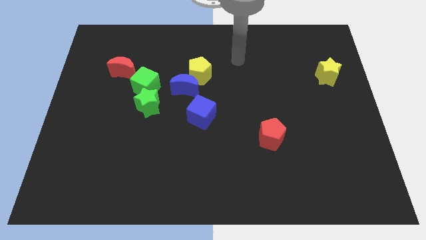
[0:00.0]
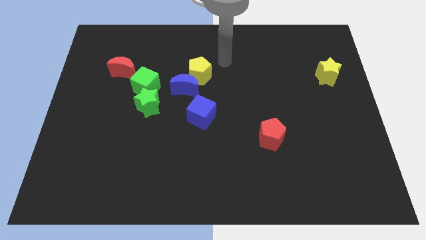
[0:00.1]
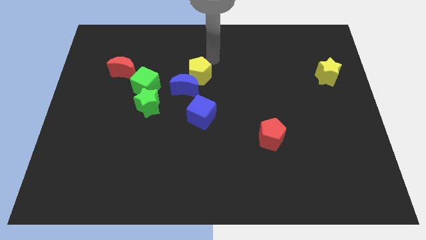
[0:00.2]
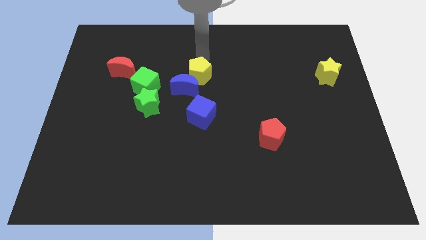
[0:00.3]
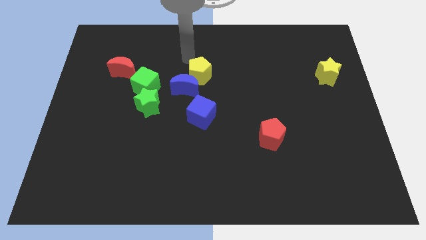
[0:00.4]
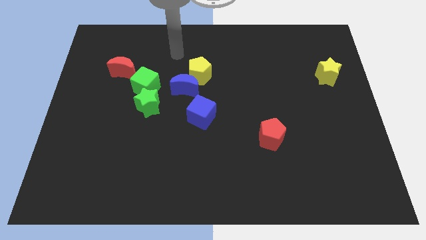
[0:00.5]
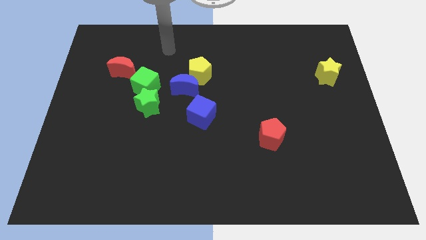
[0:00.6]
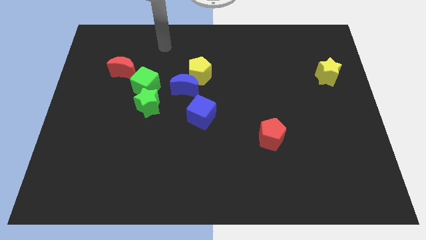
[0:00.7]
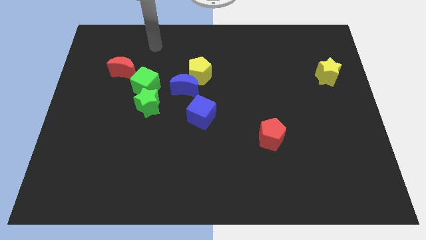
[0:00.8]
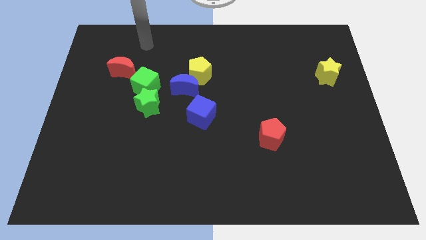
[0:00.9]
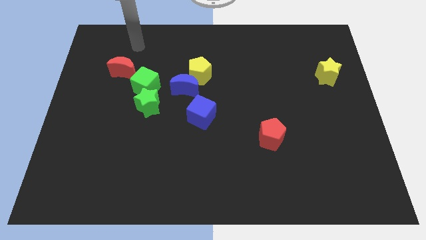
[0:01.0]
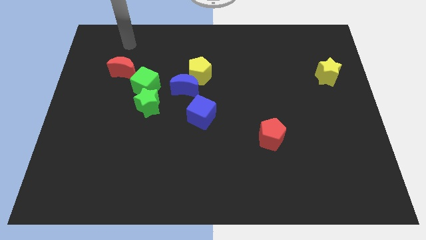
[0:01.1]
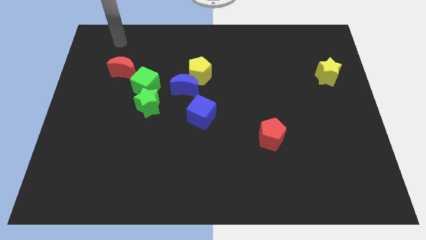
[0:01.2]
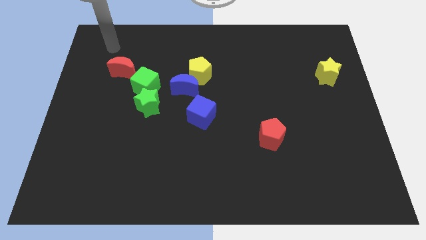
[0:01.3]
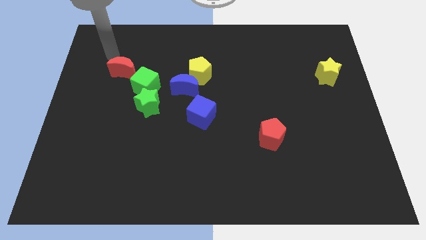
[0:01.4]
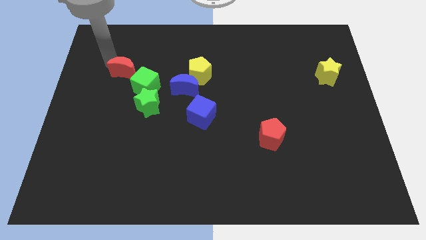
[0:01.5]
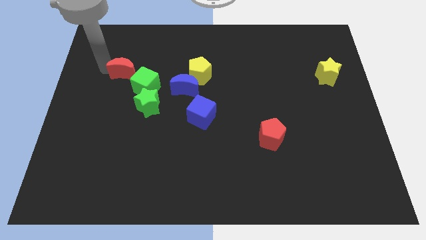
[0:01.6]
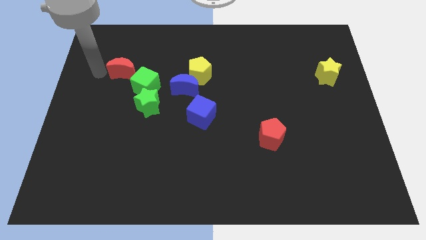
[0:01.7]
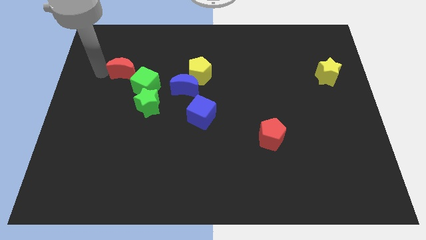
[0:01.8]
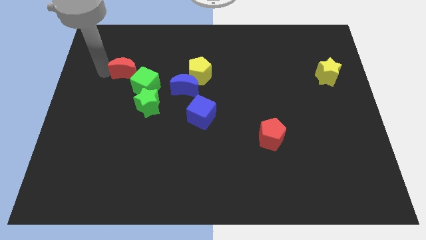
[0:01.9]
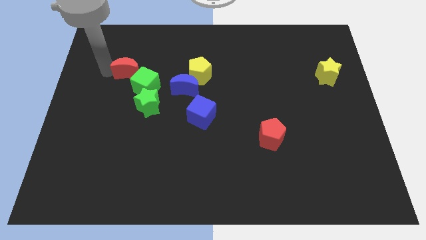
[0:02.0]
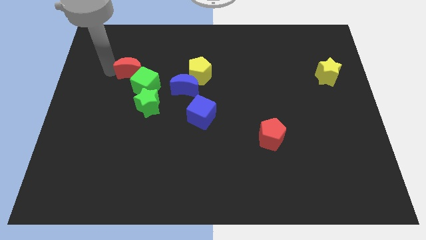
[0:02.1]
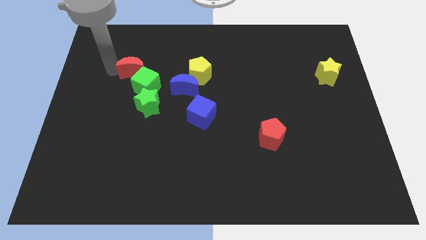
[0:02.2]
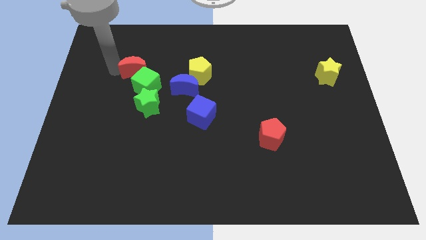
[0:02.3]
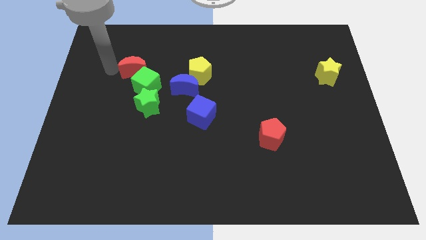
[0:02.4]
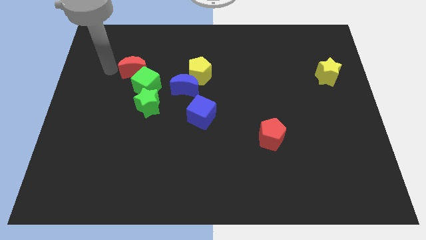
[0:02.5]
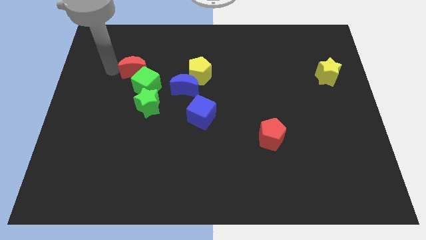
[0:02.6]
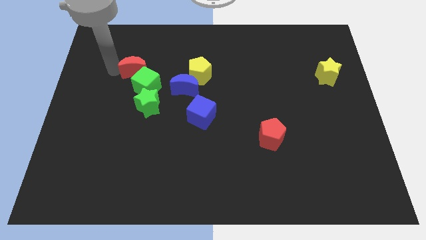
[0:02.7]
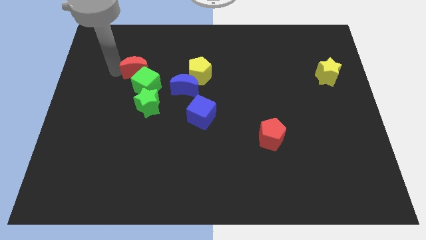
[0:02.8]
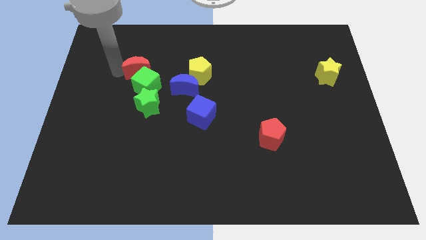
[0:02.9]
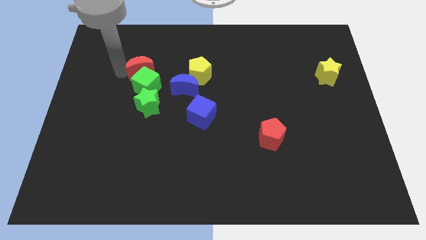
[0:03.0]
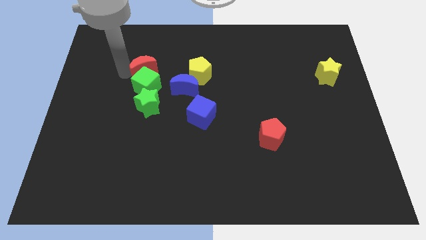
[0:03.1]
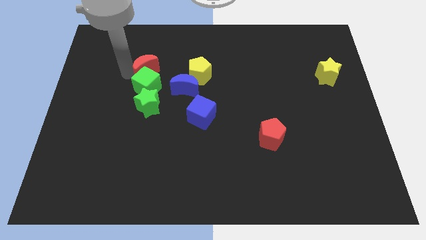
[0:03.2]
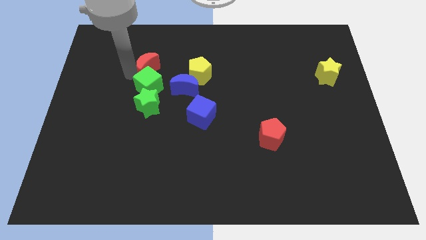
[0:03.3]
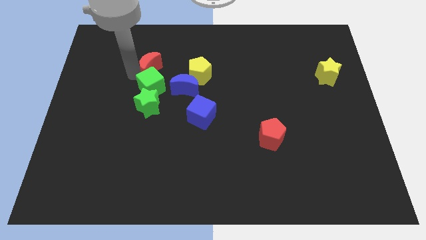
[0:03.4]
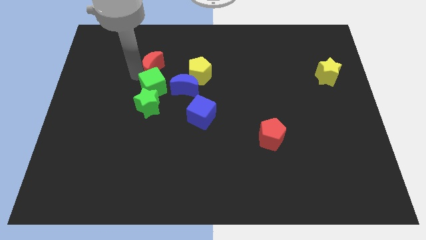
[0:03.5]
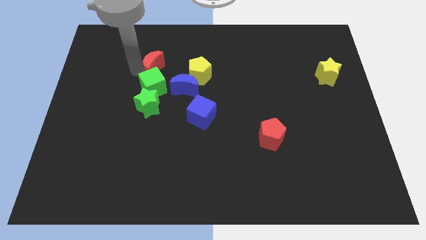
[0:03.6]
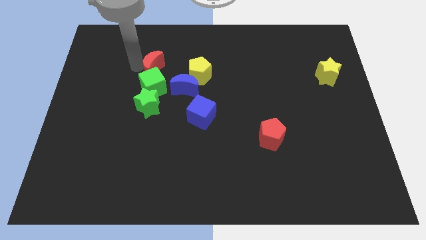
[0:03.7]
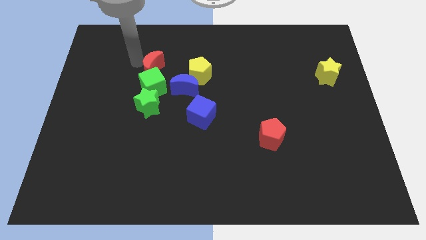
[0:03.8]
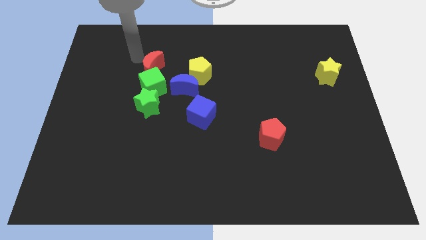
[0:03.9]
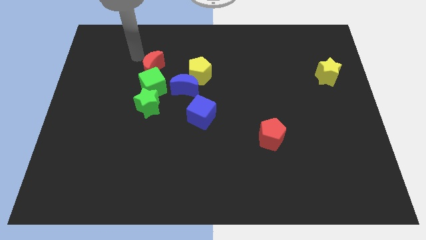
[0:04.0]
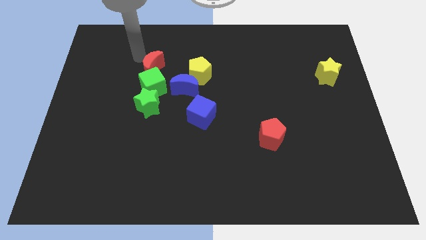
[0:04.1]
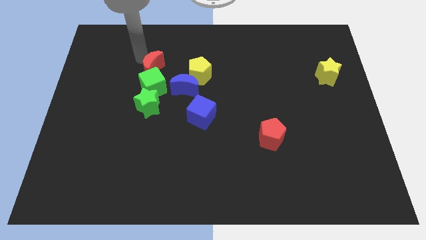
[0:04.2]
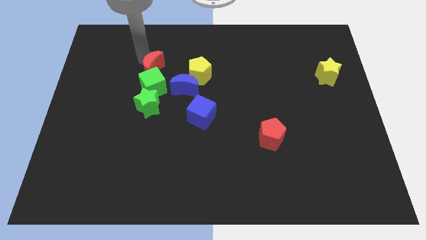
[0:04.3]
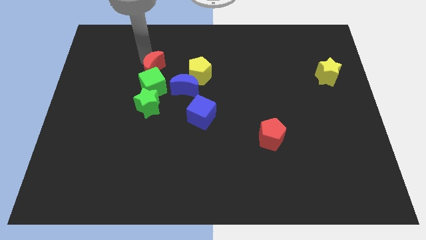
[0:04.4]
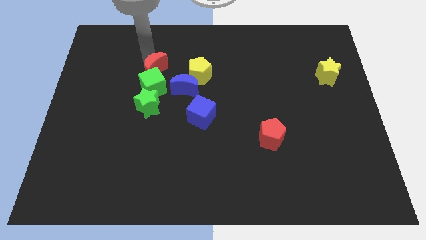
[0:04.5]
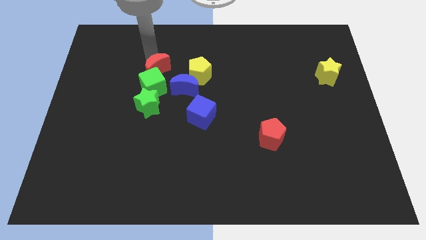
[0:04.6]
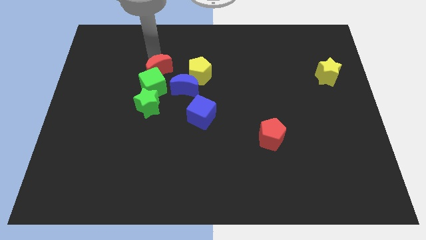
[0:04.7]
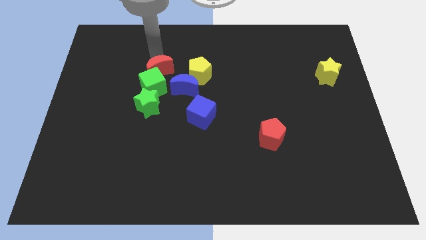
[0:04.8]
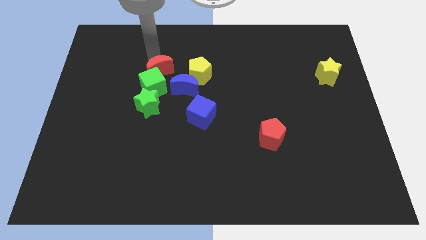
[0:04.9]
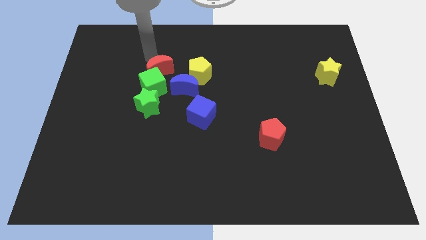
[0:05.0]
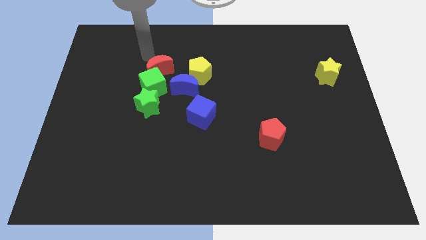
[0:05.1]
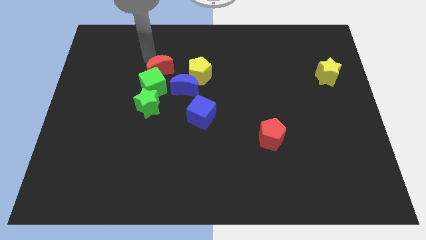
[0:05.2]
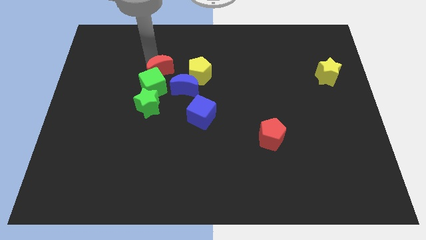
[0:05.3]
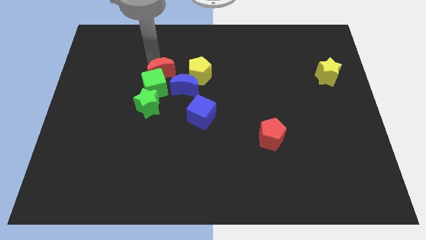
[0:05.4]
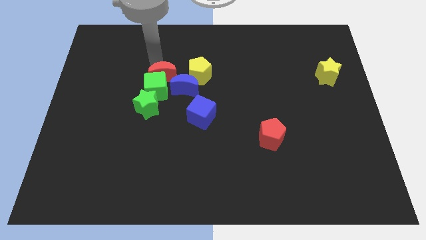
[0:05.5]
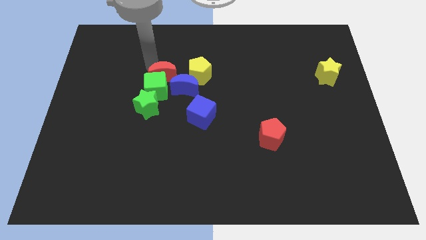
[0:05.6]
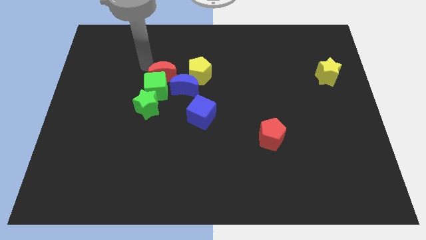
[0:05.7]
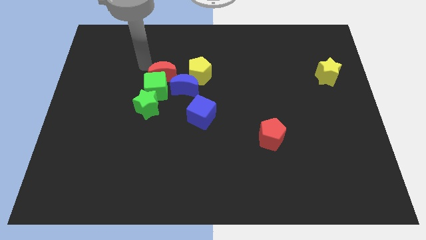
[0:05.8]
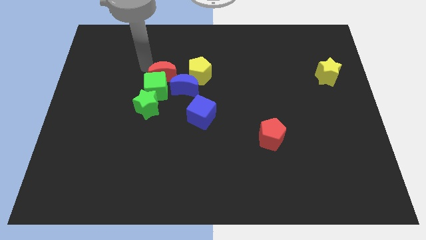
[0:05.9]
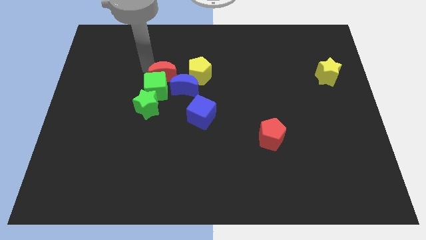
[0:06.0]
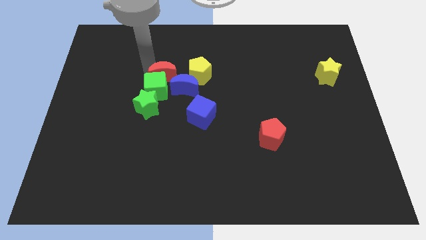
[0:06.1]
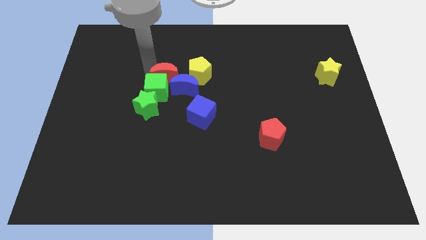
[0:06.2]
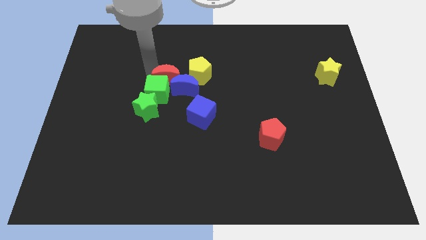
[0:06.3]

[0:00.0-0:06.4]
move the red moon towards the blue moon

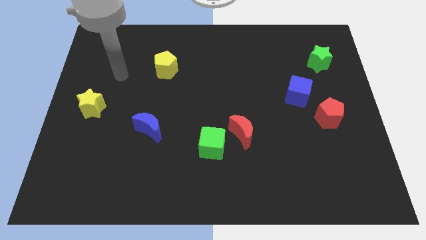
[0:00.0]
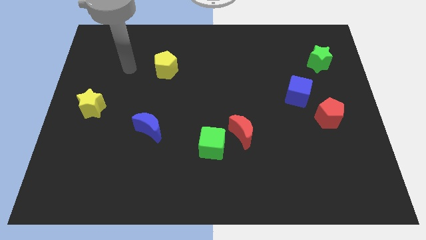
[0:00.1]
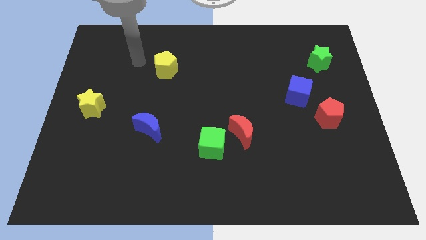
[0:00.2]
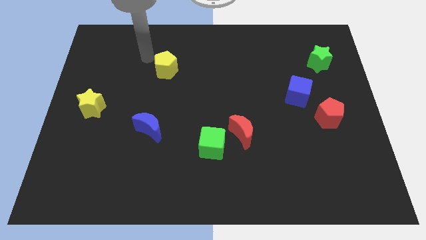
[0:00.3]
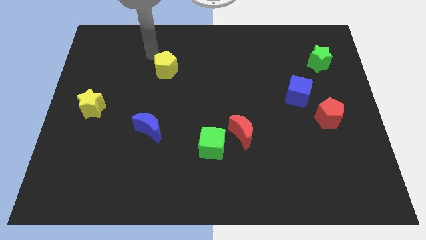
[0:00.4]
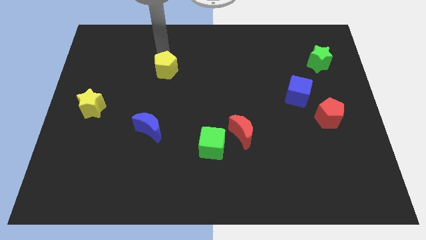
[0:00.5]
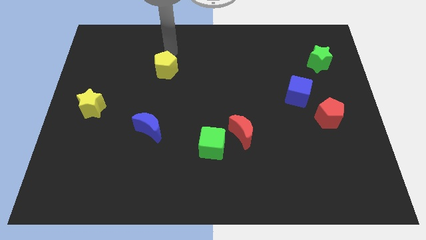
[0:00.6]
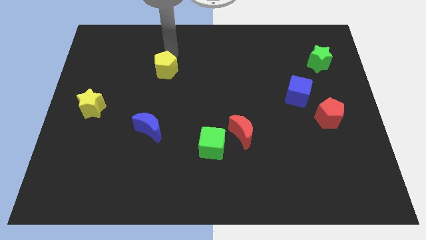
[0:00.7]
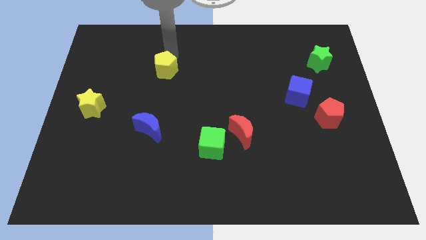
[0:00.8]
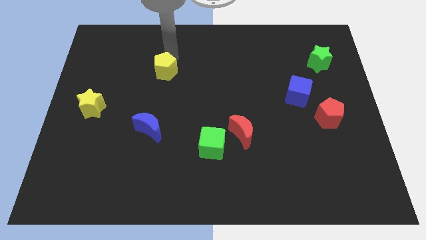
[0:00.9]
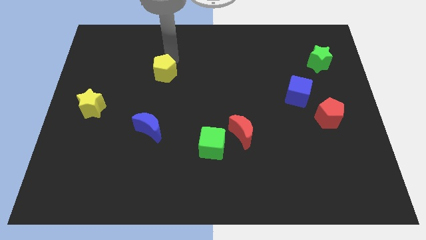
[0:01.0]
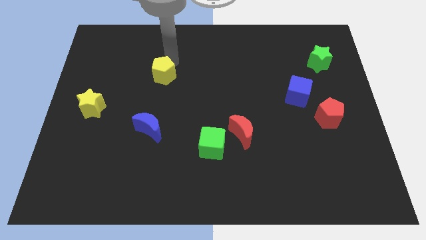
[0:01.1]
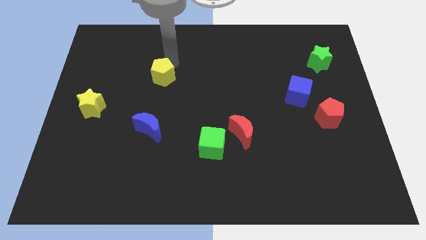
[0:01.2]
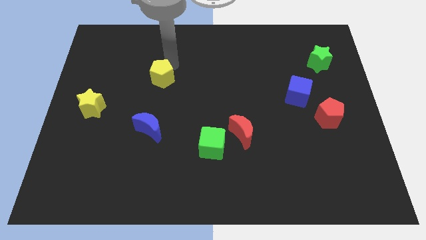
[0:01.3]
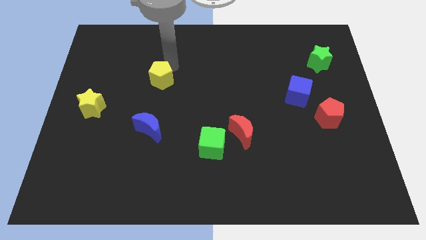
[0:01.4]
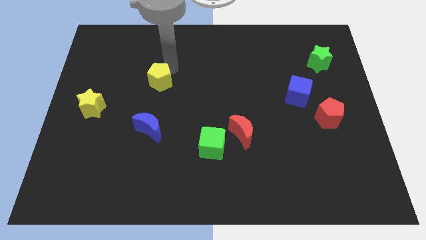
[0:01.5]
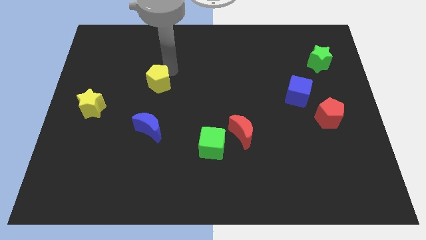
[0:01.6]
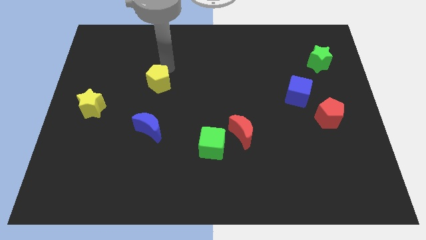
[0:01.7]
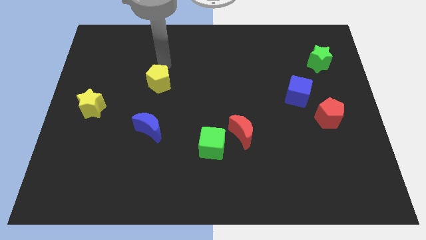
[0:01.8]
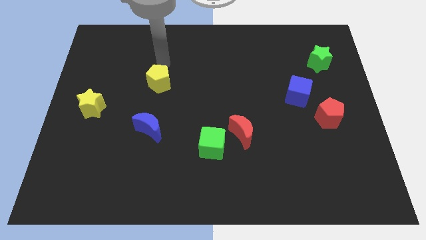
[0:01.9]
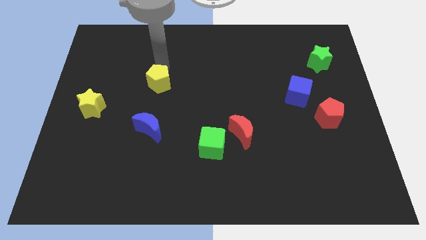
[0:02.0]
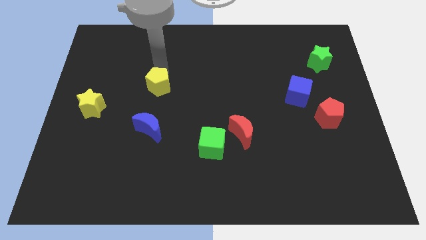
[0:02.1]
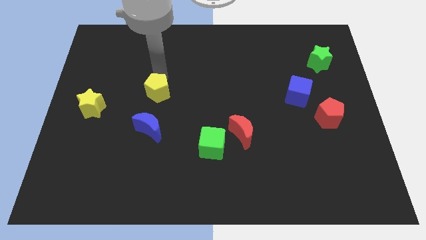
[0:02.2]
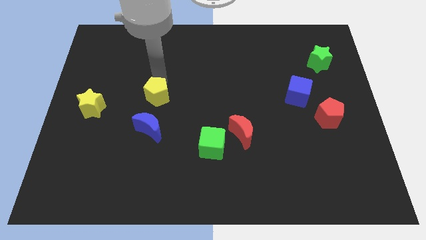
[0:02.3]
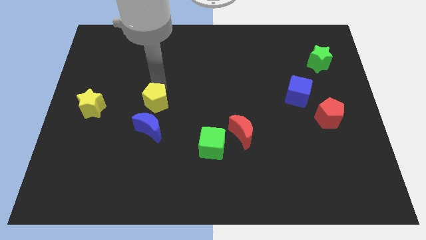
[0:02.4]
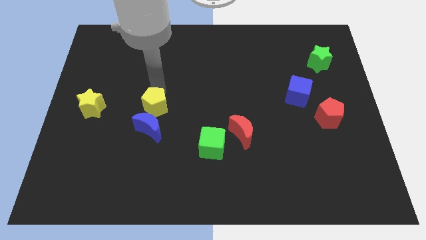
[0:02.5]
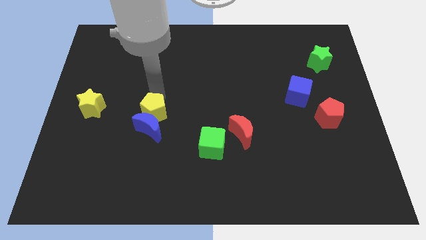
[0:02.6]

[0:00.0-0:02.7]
slide the yellow pentagon towards the blue moon
